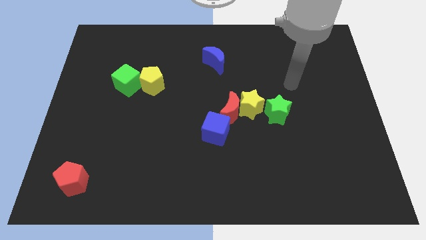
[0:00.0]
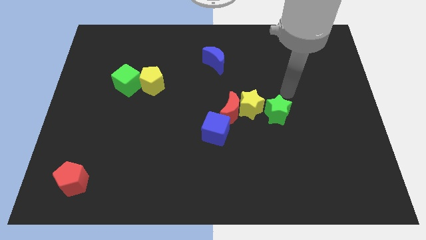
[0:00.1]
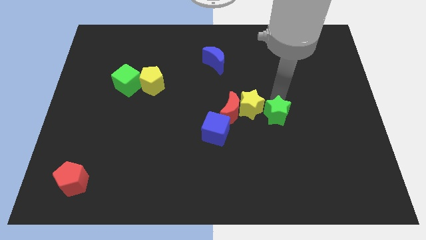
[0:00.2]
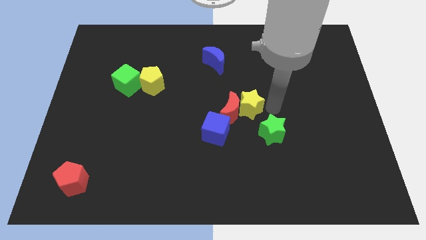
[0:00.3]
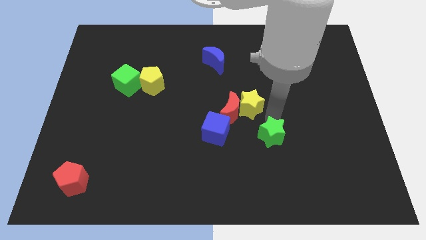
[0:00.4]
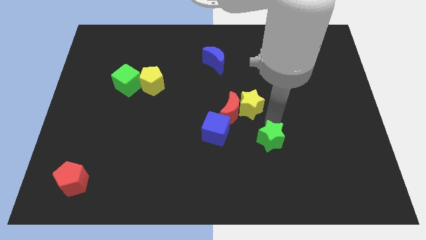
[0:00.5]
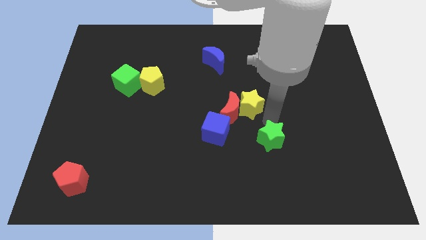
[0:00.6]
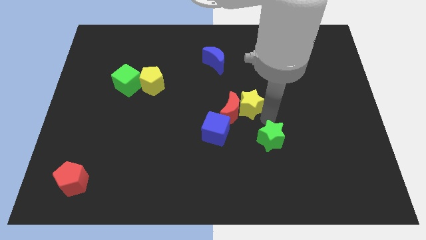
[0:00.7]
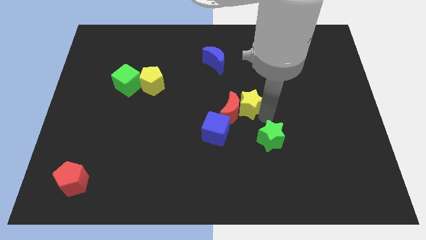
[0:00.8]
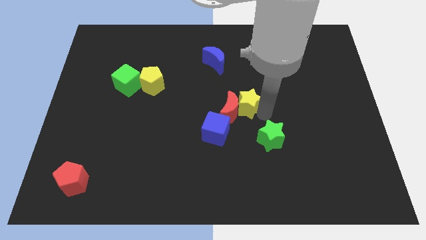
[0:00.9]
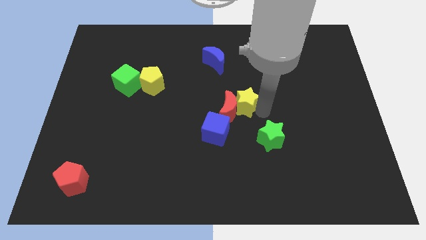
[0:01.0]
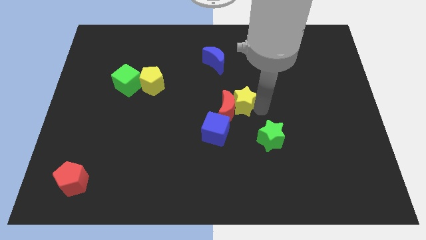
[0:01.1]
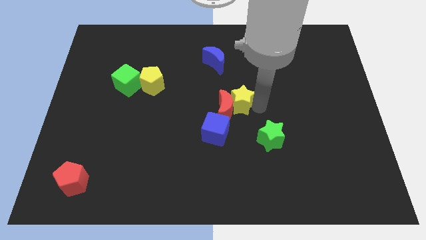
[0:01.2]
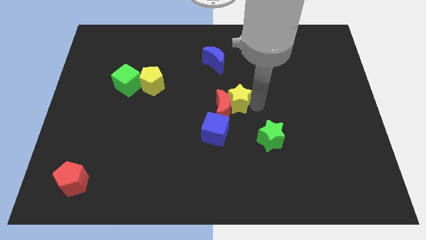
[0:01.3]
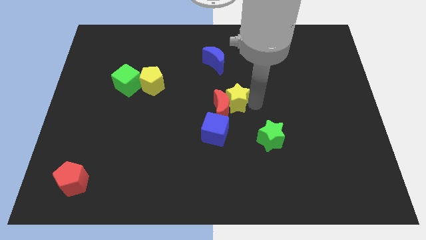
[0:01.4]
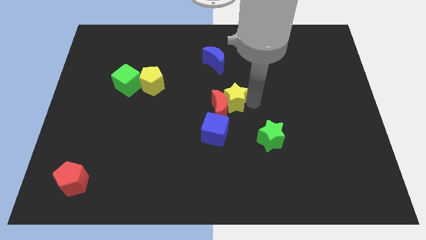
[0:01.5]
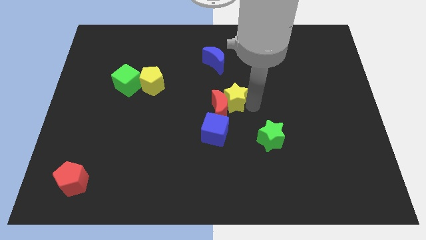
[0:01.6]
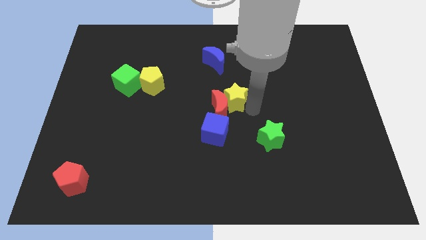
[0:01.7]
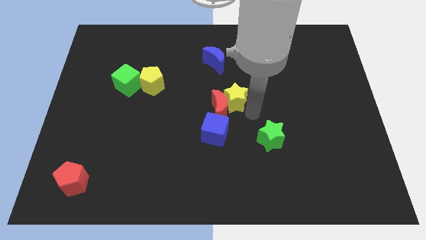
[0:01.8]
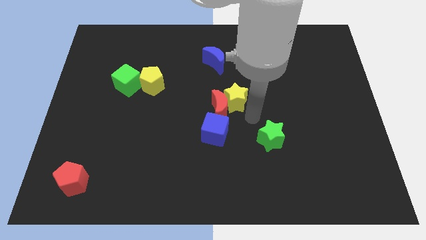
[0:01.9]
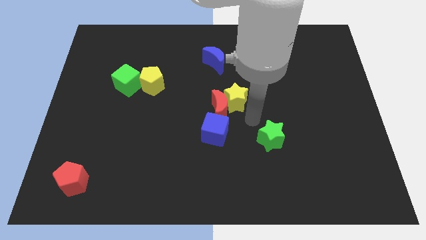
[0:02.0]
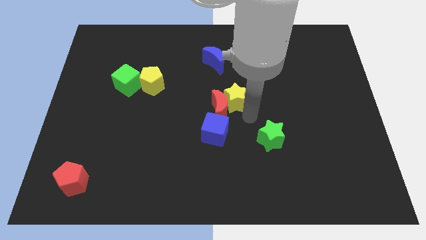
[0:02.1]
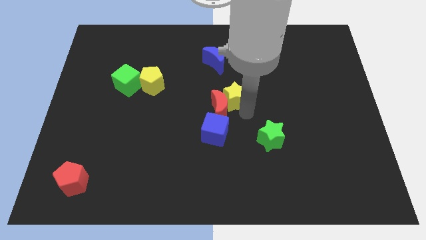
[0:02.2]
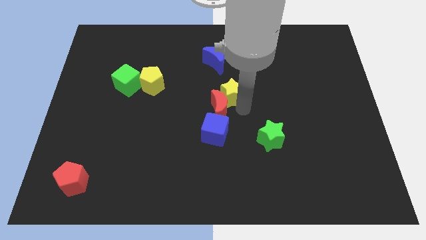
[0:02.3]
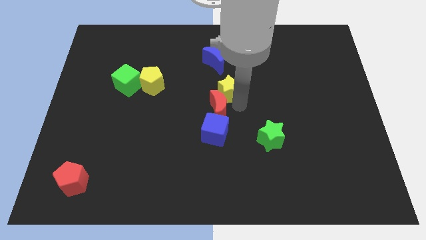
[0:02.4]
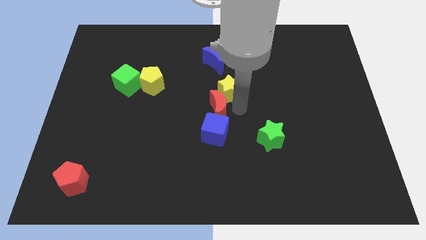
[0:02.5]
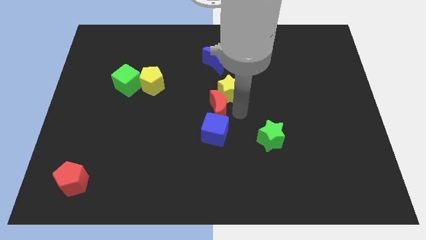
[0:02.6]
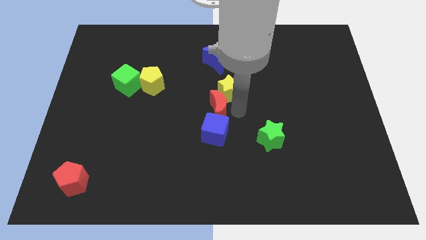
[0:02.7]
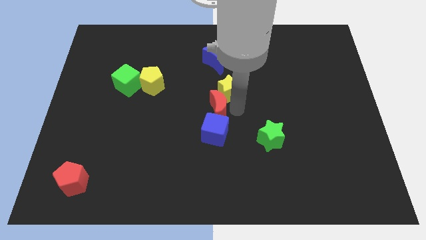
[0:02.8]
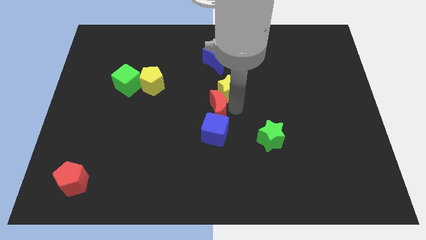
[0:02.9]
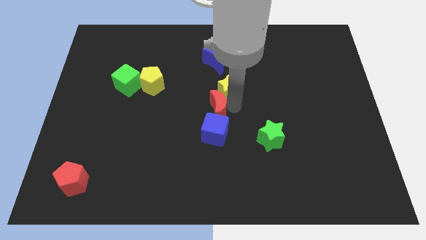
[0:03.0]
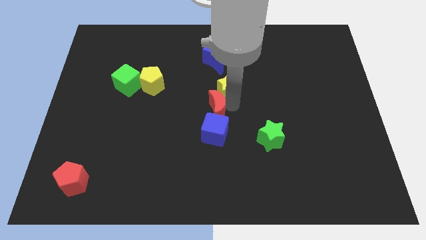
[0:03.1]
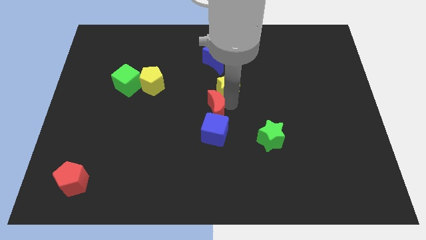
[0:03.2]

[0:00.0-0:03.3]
separate the yellow star from the red moon and green star

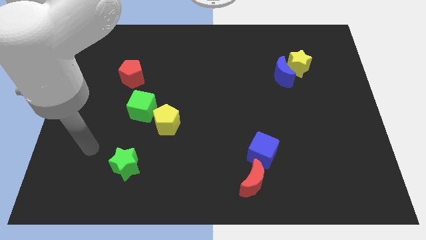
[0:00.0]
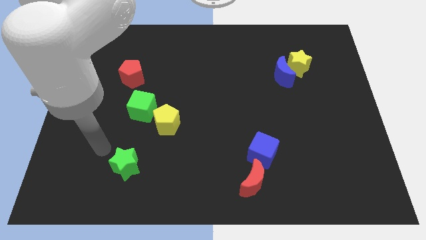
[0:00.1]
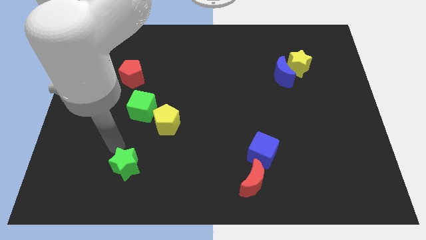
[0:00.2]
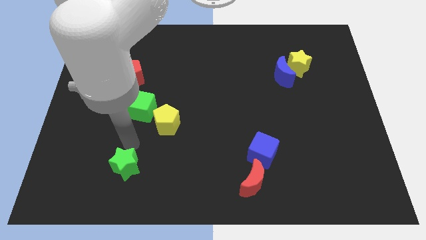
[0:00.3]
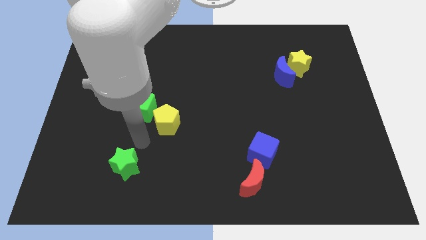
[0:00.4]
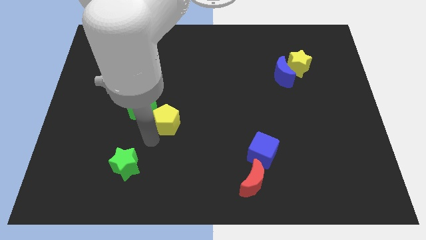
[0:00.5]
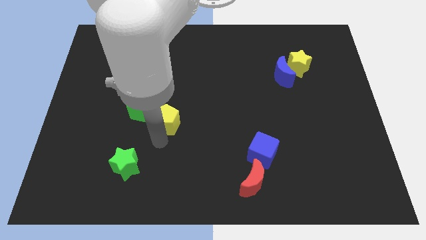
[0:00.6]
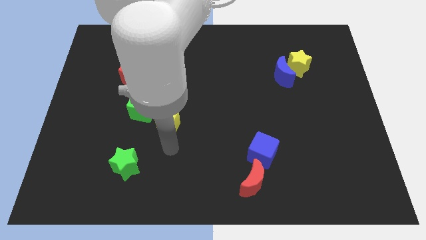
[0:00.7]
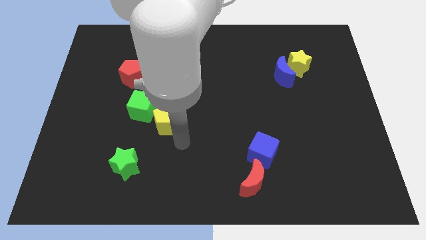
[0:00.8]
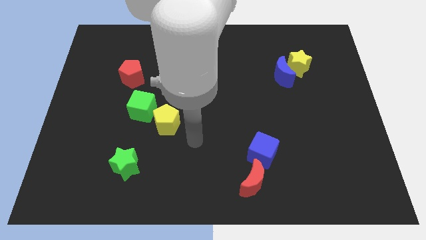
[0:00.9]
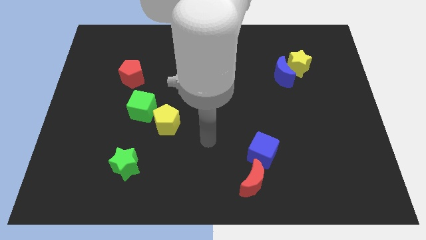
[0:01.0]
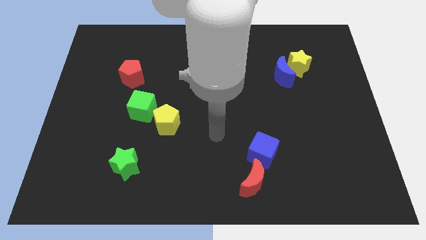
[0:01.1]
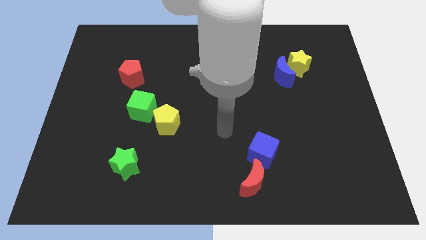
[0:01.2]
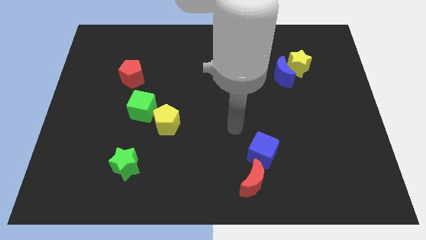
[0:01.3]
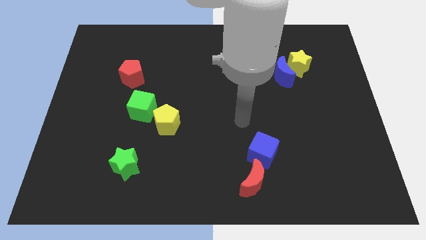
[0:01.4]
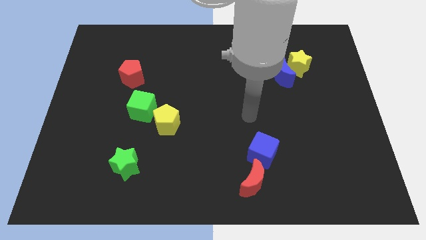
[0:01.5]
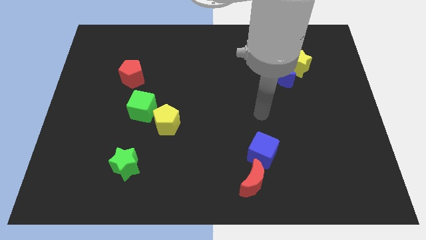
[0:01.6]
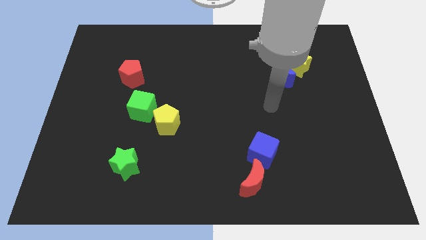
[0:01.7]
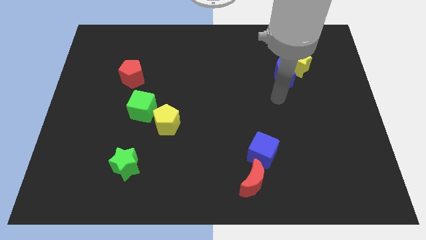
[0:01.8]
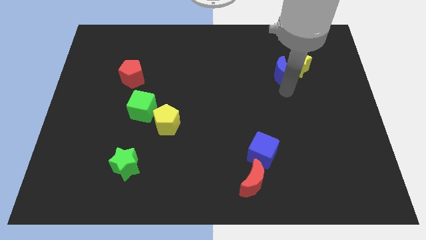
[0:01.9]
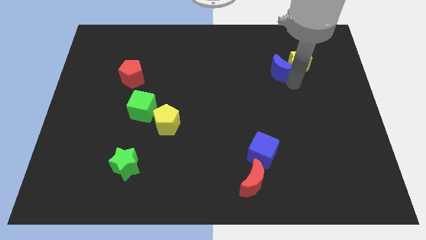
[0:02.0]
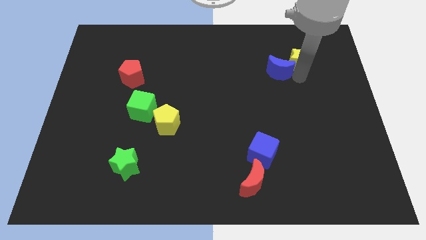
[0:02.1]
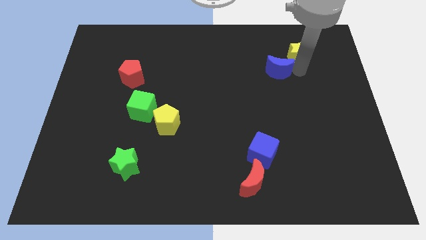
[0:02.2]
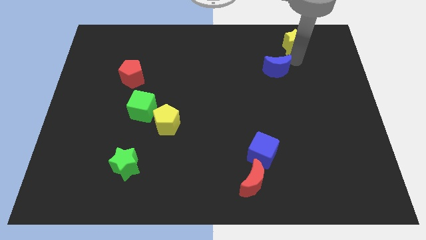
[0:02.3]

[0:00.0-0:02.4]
separate the blue moon from the yellow star

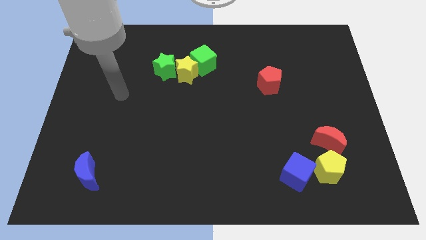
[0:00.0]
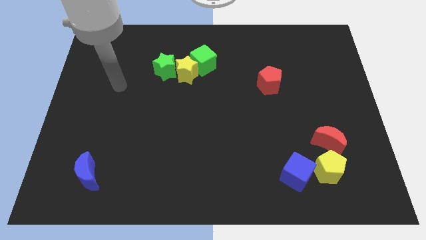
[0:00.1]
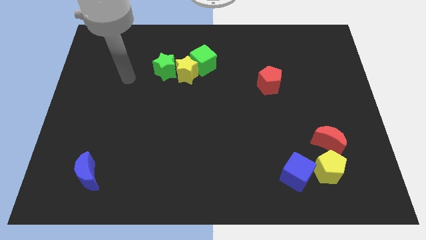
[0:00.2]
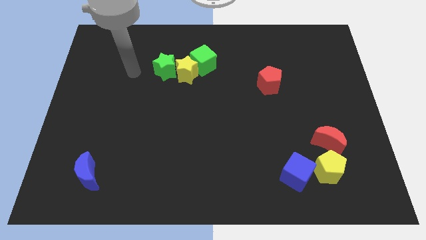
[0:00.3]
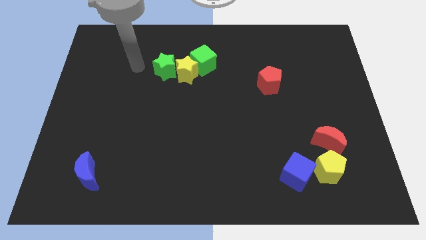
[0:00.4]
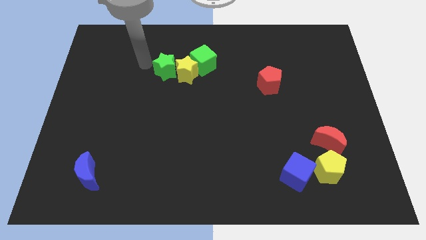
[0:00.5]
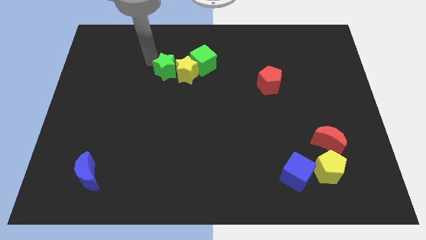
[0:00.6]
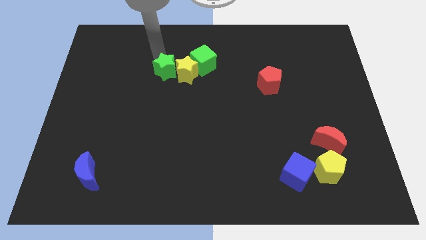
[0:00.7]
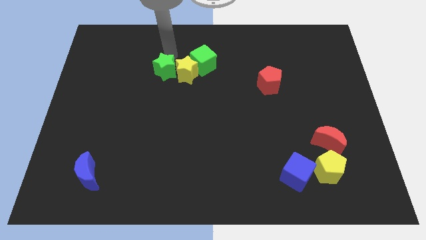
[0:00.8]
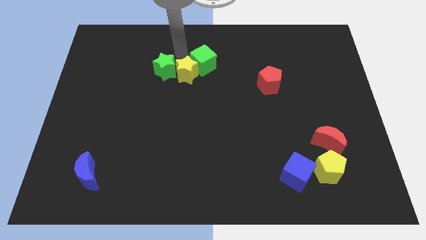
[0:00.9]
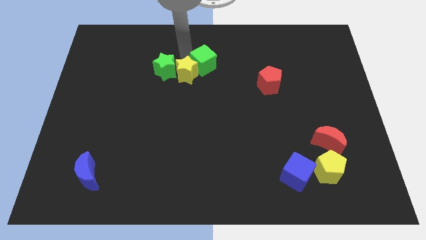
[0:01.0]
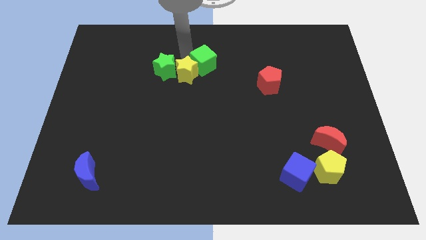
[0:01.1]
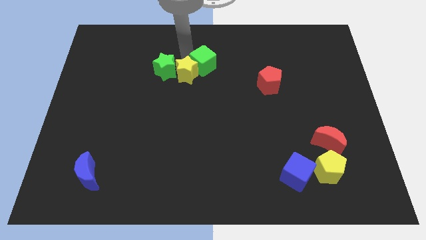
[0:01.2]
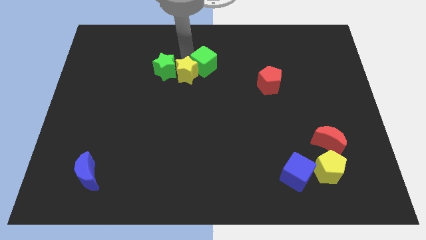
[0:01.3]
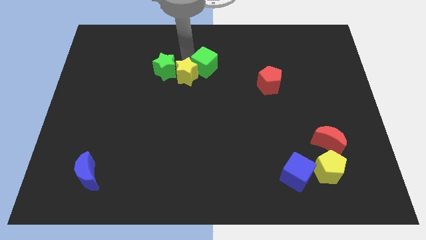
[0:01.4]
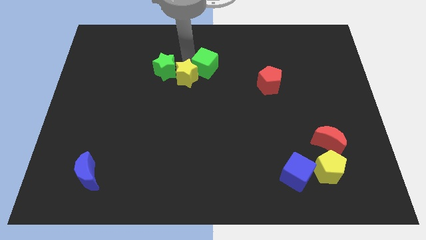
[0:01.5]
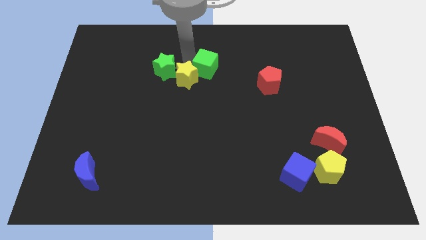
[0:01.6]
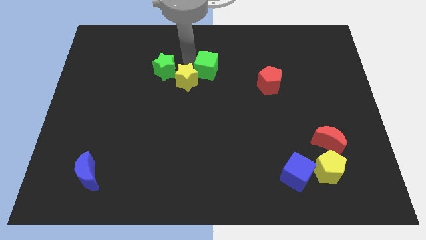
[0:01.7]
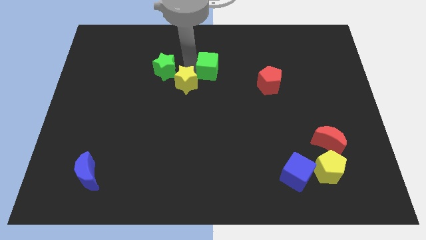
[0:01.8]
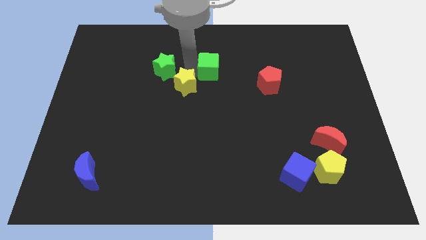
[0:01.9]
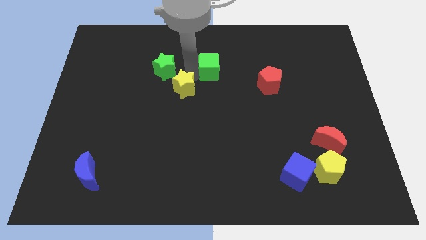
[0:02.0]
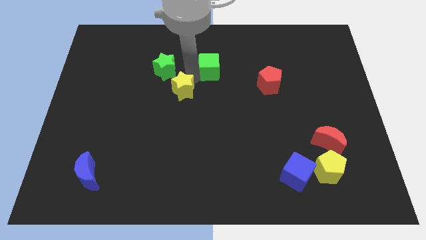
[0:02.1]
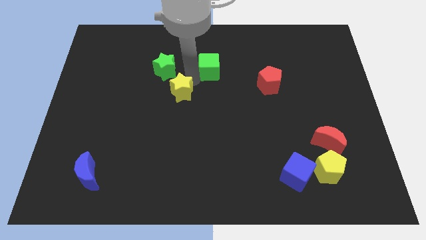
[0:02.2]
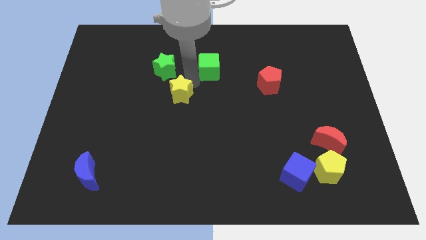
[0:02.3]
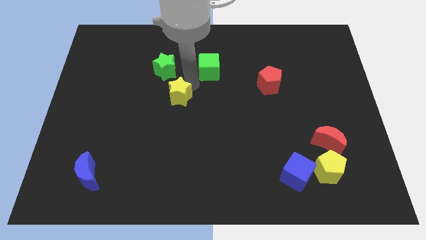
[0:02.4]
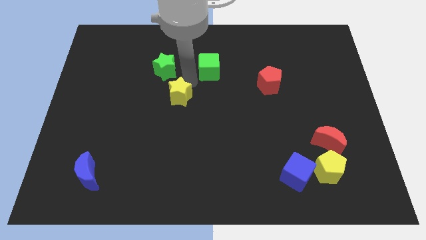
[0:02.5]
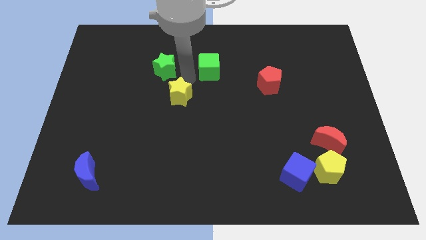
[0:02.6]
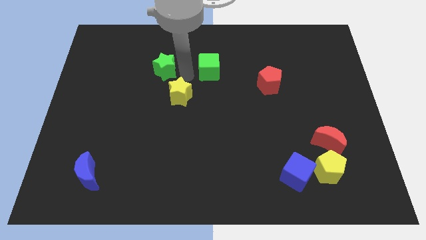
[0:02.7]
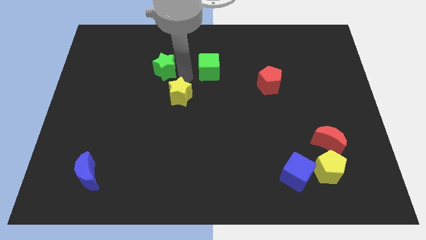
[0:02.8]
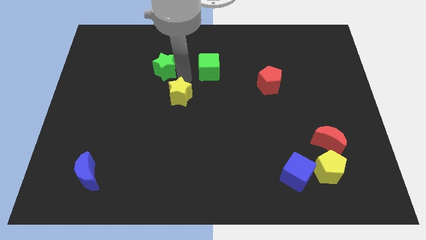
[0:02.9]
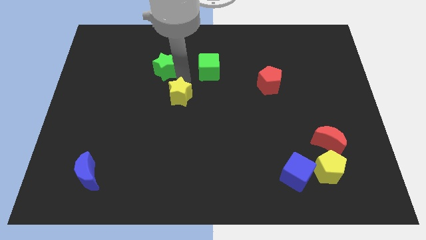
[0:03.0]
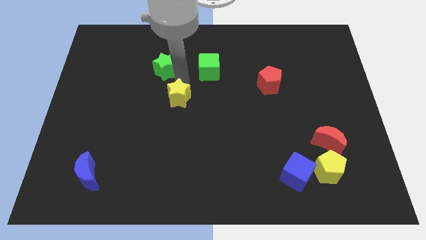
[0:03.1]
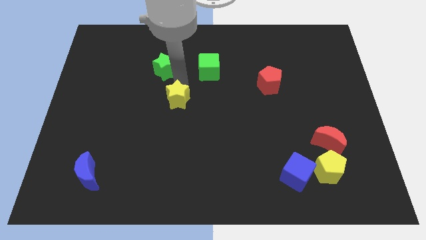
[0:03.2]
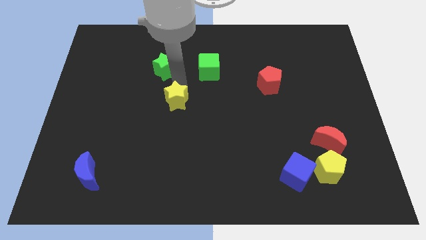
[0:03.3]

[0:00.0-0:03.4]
separate the yellow star from the green star and green cube

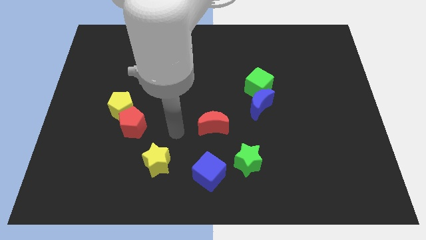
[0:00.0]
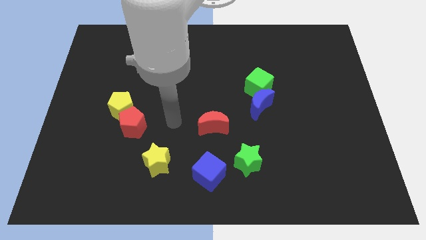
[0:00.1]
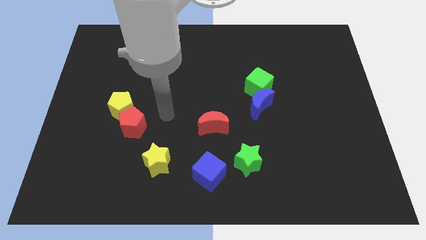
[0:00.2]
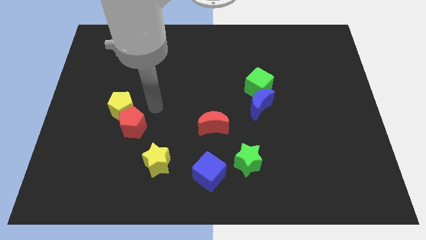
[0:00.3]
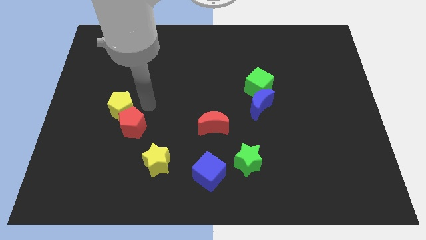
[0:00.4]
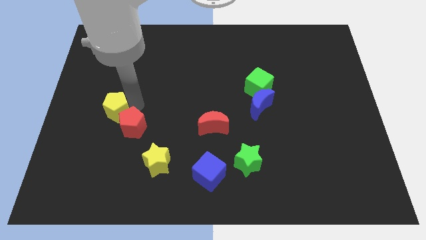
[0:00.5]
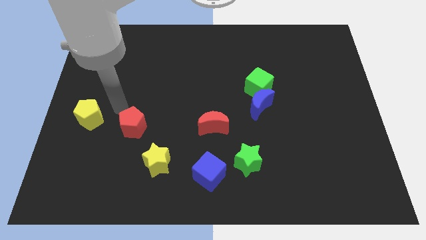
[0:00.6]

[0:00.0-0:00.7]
pull the red pentagon apart from the yellow pentagon
